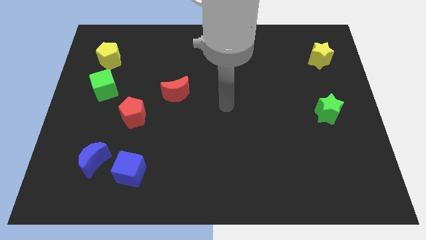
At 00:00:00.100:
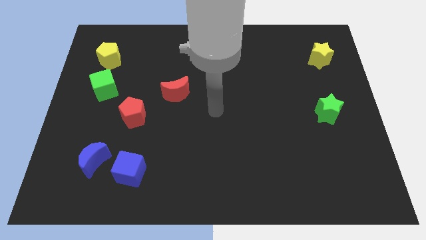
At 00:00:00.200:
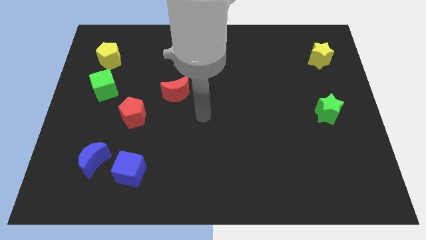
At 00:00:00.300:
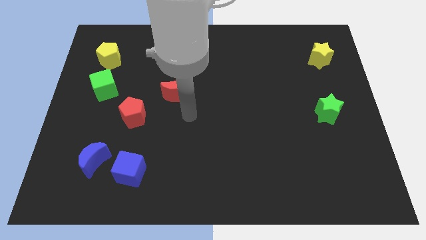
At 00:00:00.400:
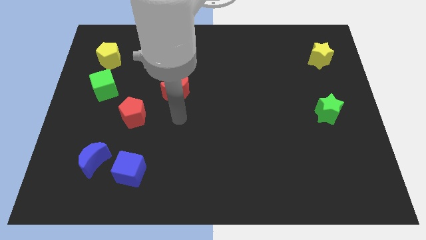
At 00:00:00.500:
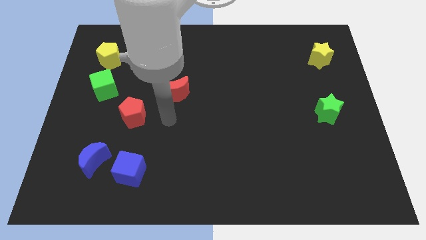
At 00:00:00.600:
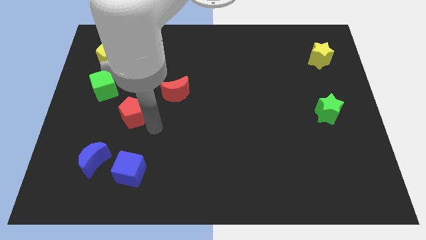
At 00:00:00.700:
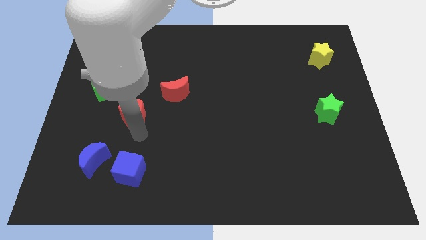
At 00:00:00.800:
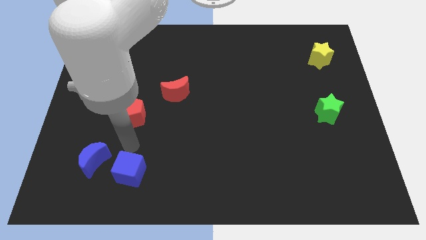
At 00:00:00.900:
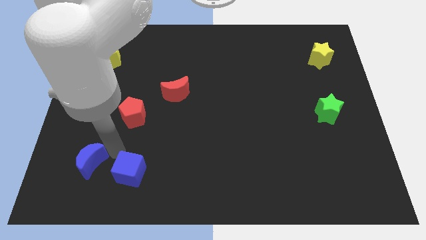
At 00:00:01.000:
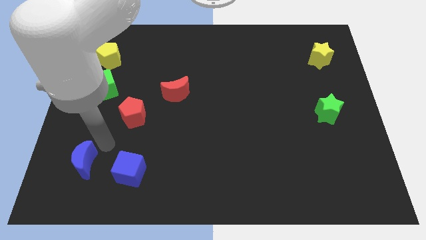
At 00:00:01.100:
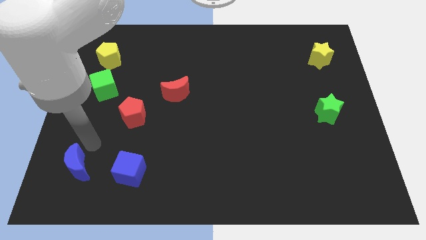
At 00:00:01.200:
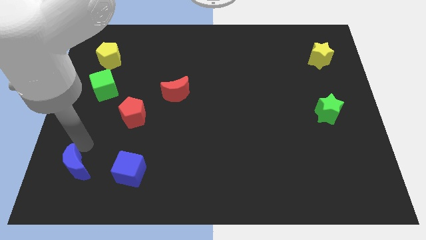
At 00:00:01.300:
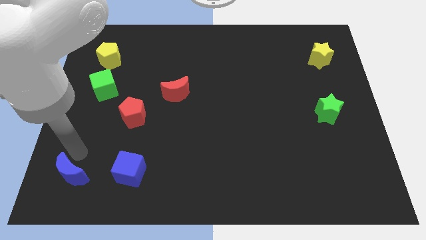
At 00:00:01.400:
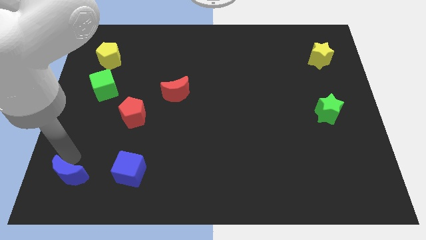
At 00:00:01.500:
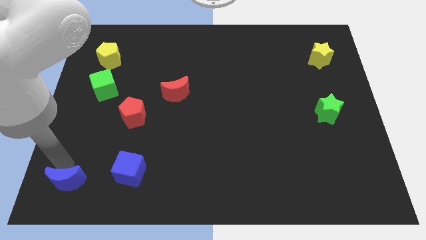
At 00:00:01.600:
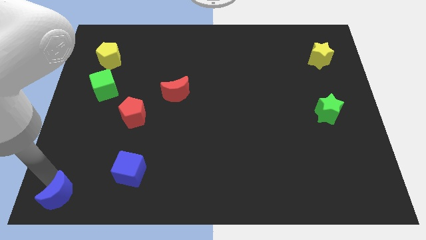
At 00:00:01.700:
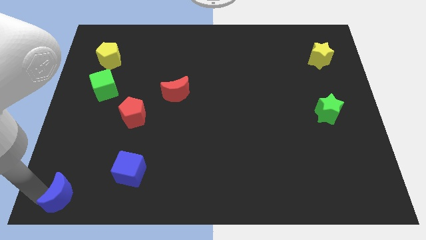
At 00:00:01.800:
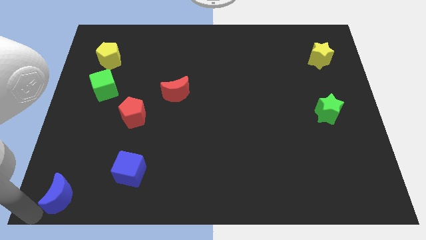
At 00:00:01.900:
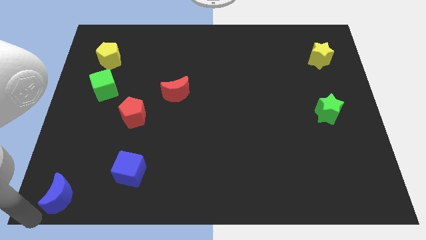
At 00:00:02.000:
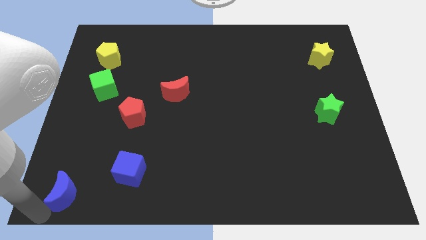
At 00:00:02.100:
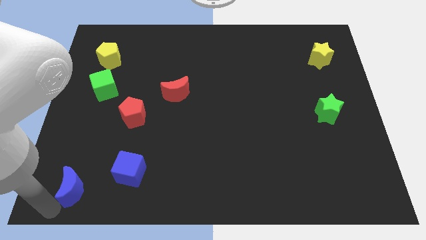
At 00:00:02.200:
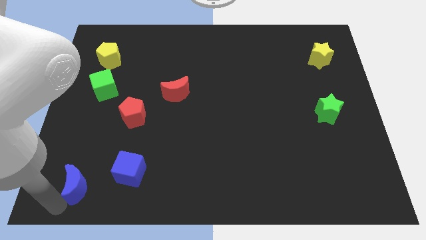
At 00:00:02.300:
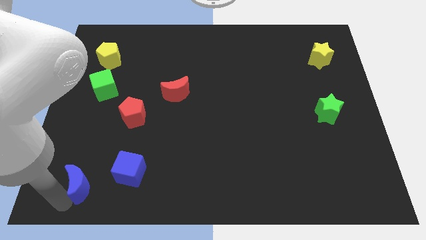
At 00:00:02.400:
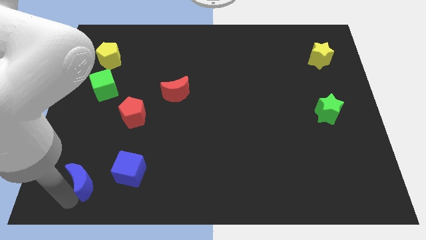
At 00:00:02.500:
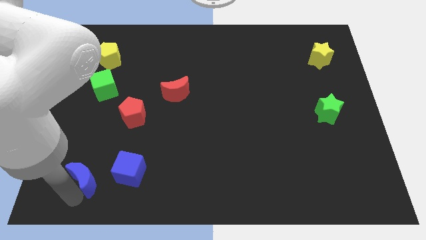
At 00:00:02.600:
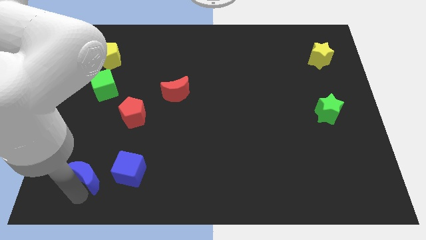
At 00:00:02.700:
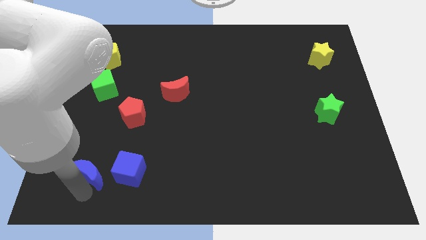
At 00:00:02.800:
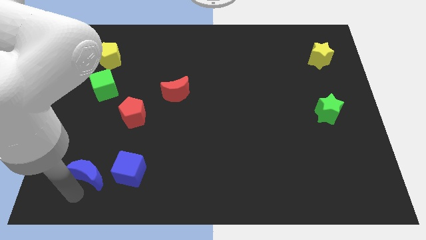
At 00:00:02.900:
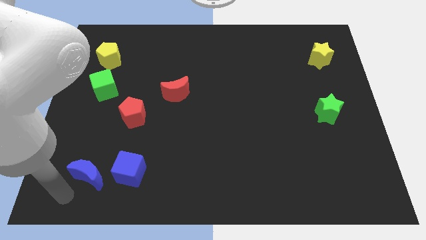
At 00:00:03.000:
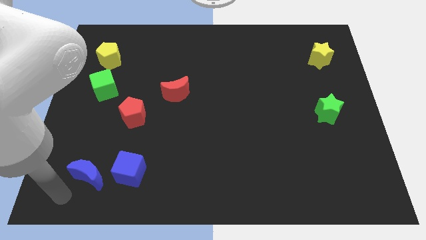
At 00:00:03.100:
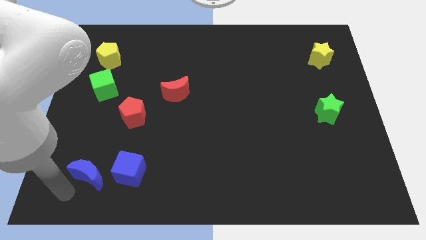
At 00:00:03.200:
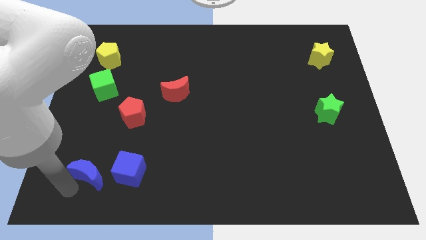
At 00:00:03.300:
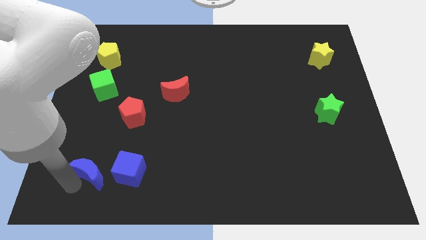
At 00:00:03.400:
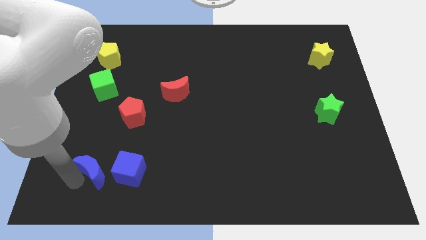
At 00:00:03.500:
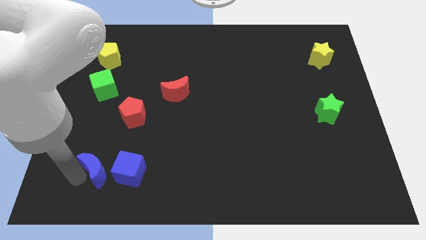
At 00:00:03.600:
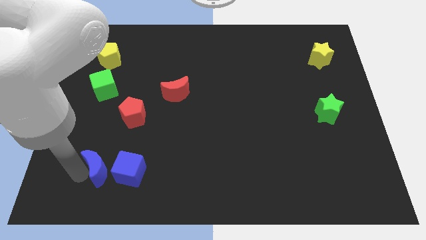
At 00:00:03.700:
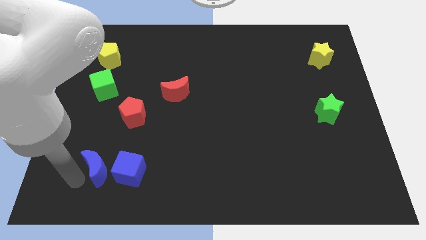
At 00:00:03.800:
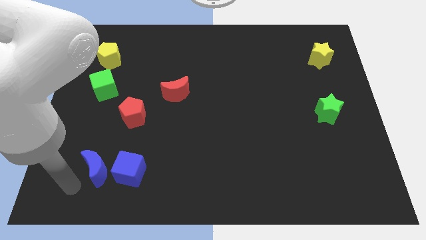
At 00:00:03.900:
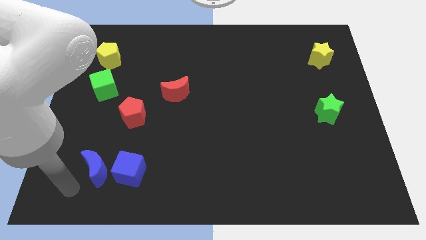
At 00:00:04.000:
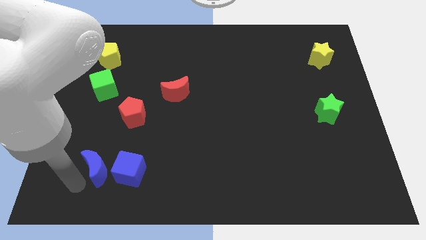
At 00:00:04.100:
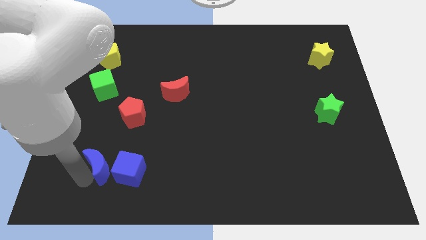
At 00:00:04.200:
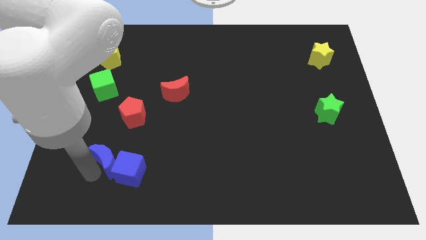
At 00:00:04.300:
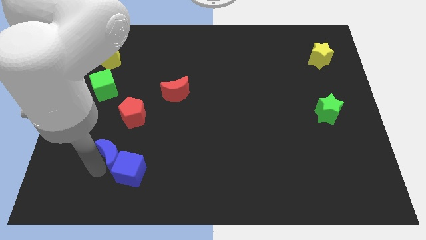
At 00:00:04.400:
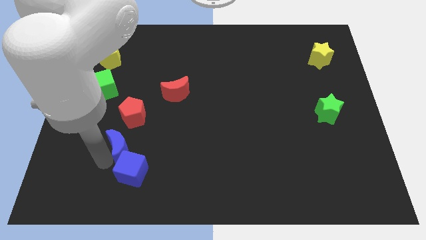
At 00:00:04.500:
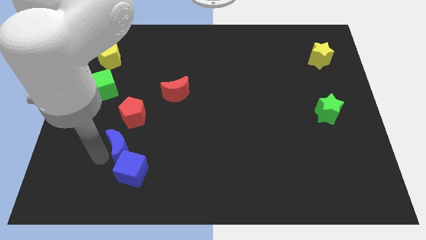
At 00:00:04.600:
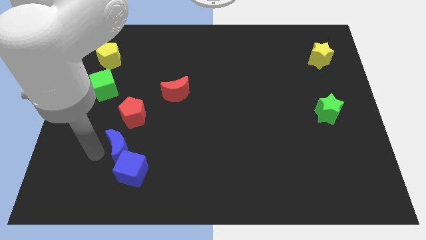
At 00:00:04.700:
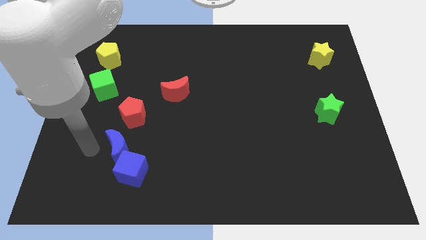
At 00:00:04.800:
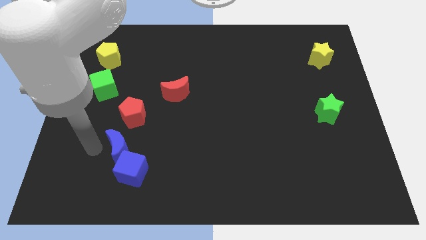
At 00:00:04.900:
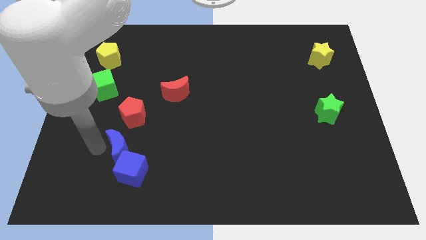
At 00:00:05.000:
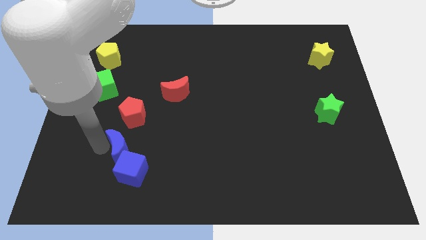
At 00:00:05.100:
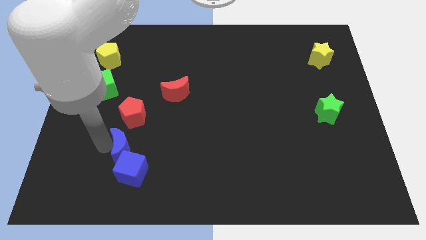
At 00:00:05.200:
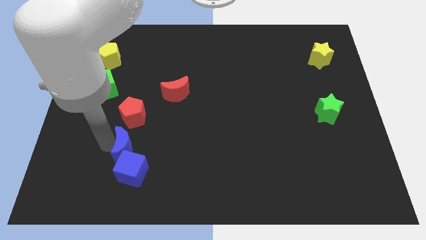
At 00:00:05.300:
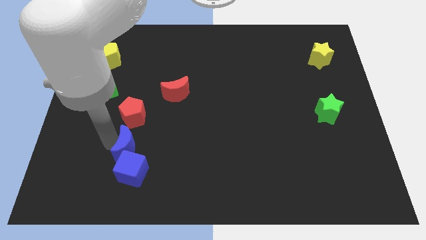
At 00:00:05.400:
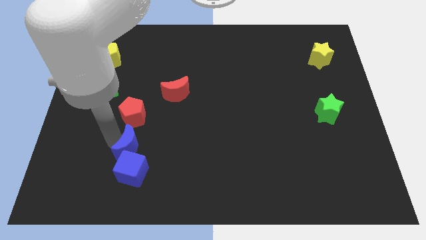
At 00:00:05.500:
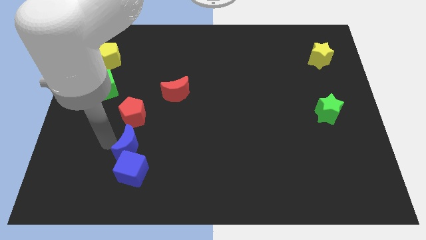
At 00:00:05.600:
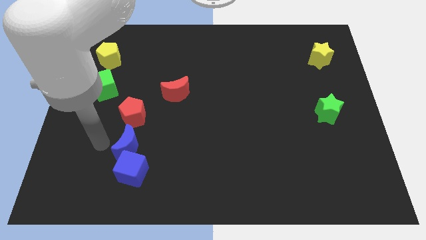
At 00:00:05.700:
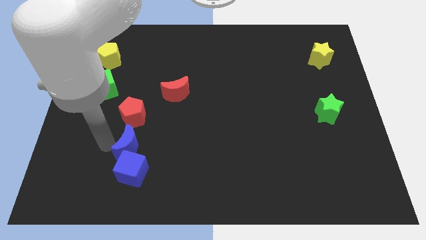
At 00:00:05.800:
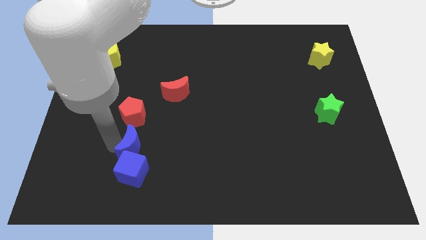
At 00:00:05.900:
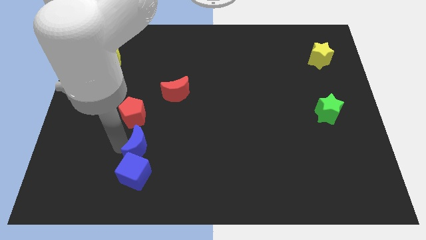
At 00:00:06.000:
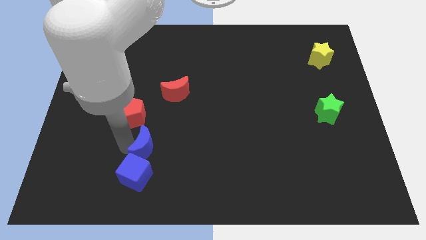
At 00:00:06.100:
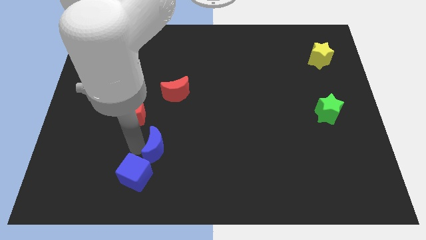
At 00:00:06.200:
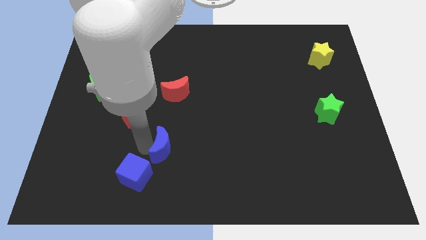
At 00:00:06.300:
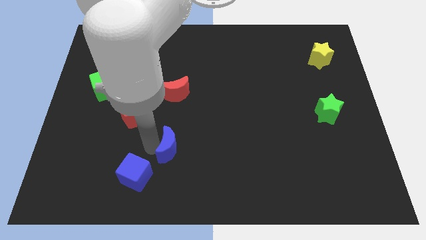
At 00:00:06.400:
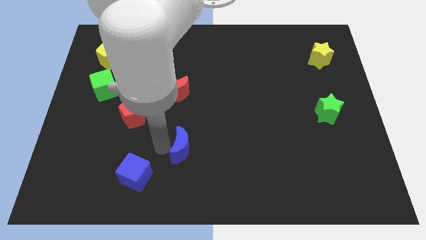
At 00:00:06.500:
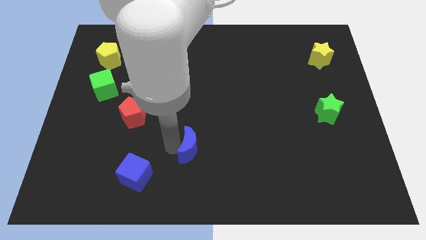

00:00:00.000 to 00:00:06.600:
move the blue moon right

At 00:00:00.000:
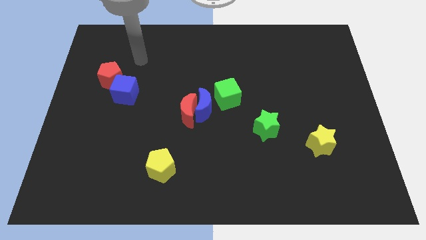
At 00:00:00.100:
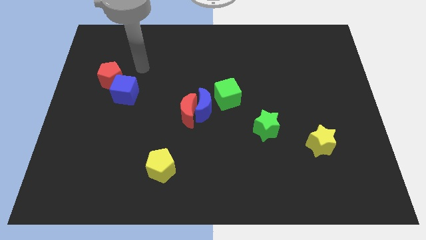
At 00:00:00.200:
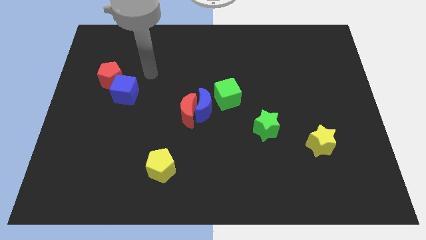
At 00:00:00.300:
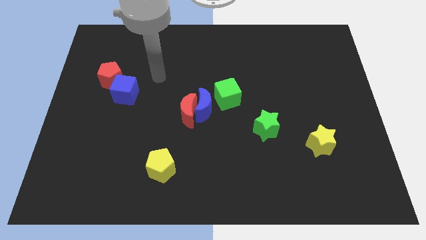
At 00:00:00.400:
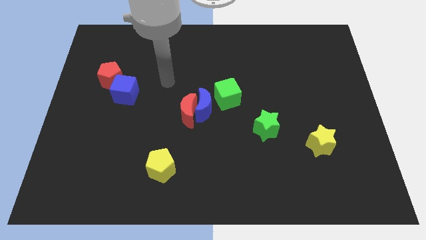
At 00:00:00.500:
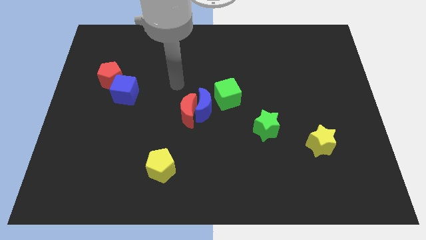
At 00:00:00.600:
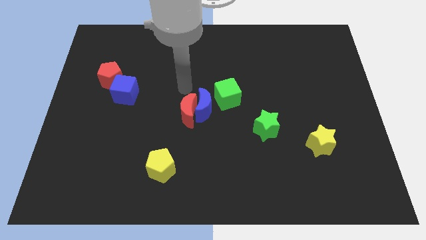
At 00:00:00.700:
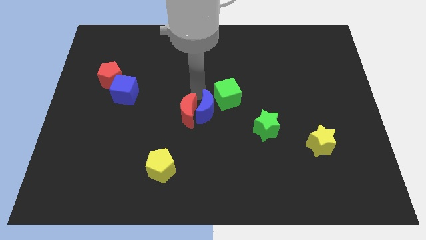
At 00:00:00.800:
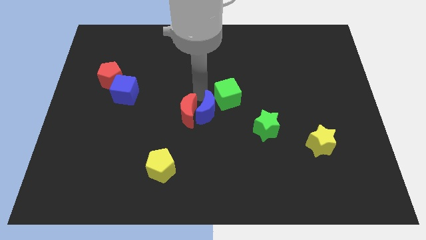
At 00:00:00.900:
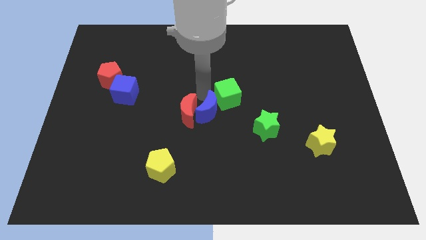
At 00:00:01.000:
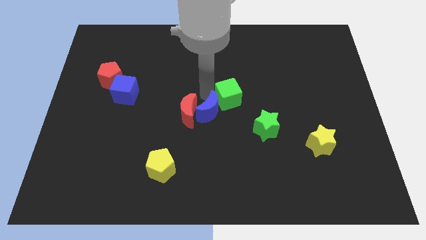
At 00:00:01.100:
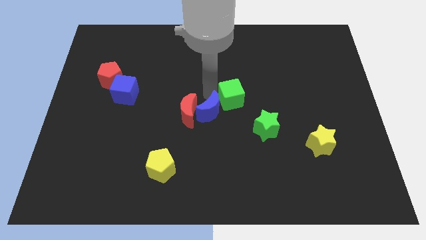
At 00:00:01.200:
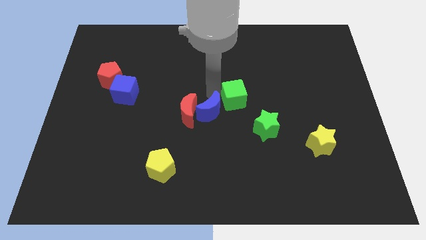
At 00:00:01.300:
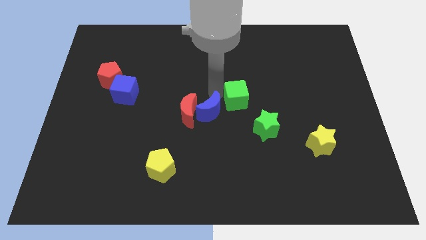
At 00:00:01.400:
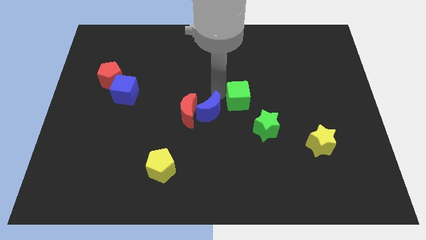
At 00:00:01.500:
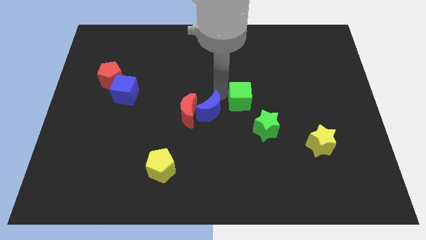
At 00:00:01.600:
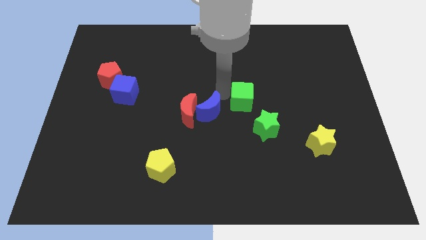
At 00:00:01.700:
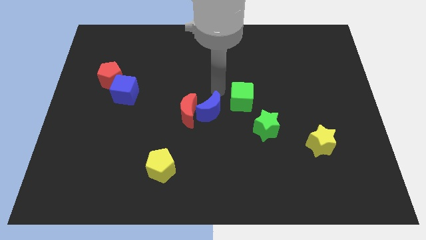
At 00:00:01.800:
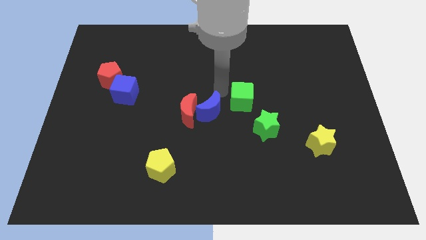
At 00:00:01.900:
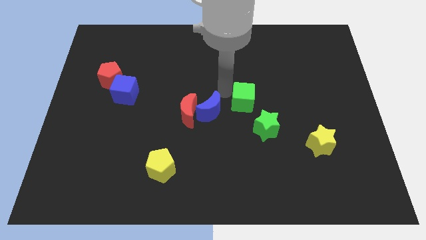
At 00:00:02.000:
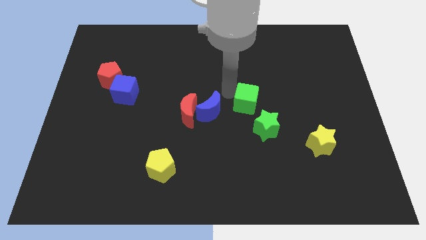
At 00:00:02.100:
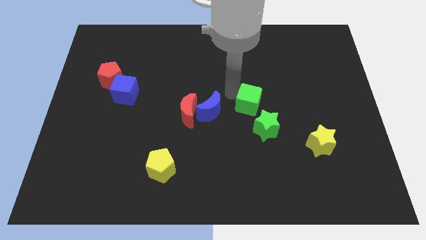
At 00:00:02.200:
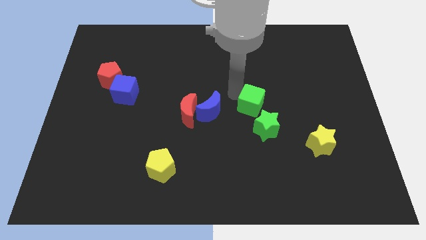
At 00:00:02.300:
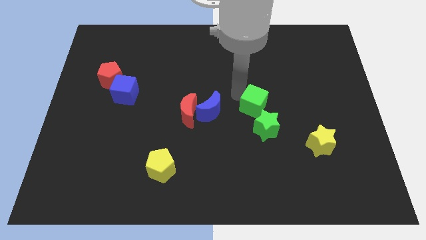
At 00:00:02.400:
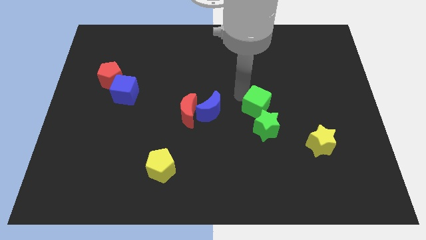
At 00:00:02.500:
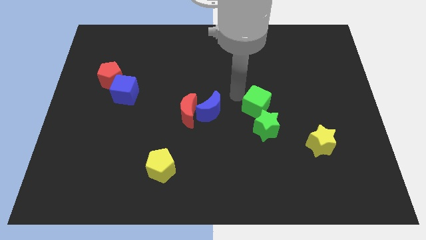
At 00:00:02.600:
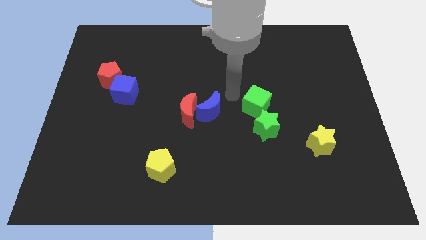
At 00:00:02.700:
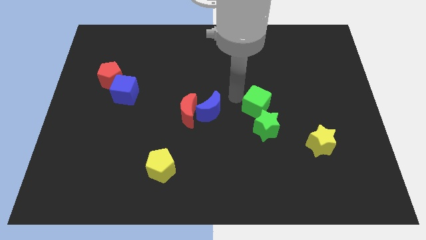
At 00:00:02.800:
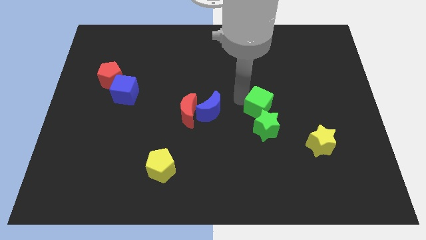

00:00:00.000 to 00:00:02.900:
slide the green cube slightly diagonally down and to the right
